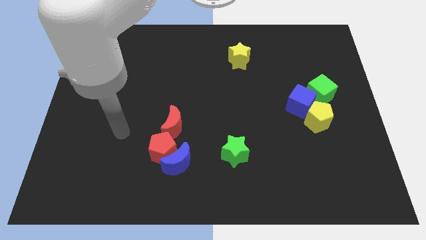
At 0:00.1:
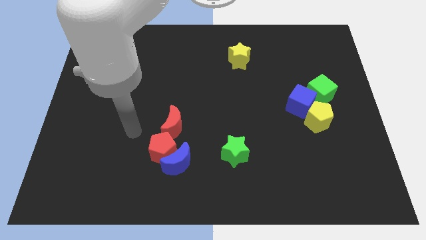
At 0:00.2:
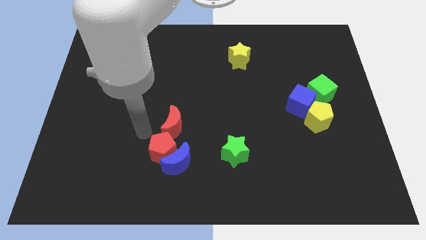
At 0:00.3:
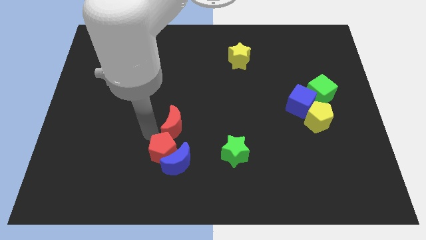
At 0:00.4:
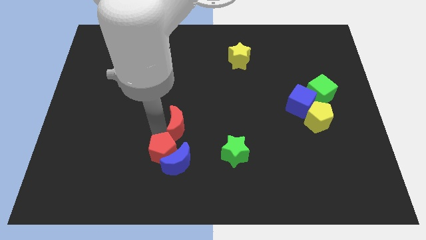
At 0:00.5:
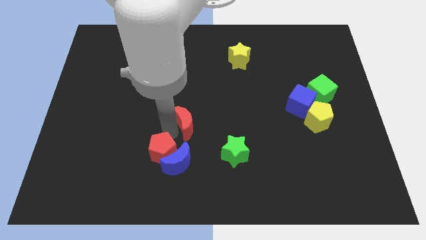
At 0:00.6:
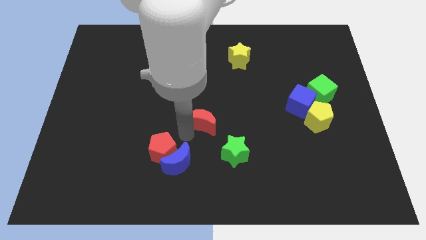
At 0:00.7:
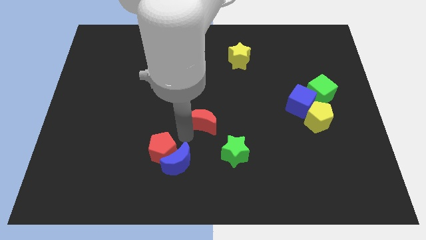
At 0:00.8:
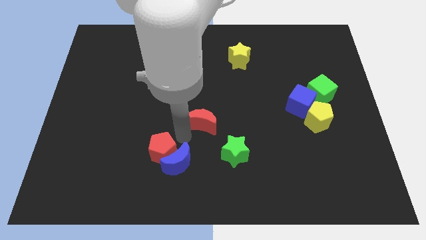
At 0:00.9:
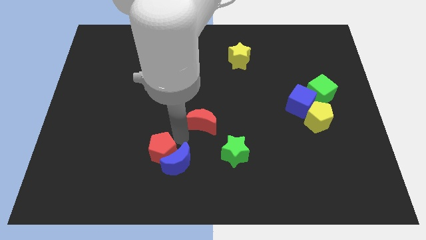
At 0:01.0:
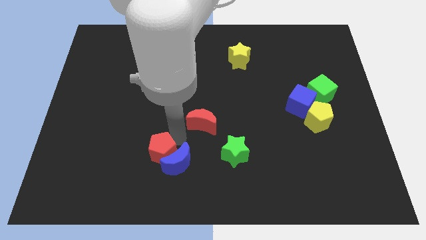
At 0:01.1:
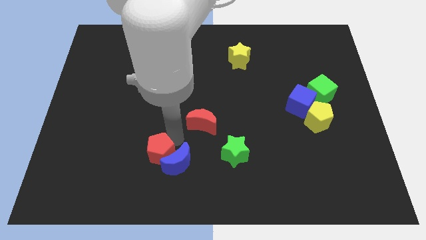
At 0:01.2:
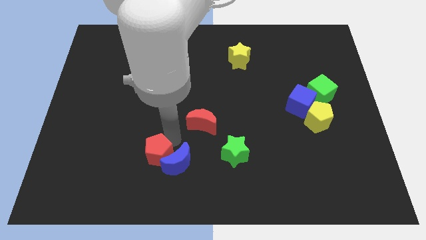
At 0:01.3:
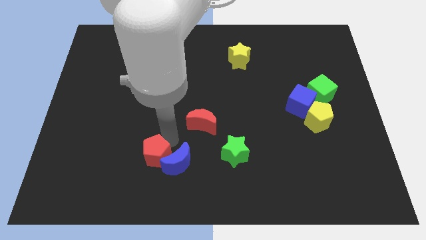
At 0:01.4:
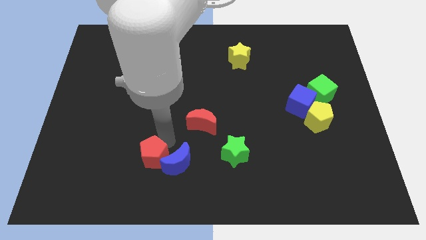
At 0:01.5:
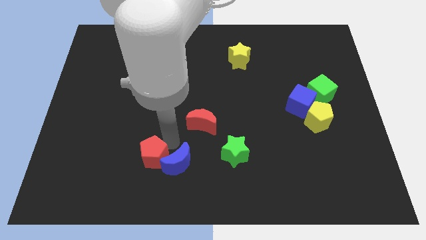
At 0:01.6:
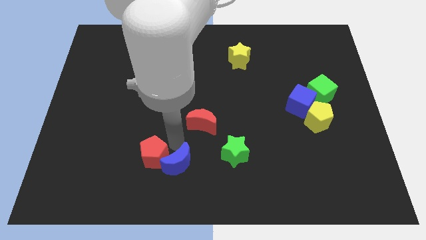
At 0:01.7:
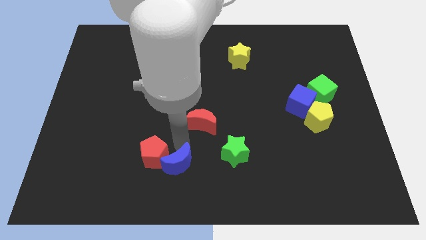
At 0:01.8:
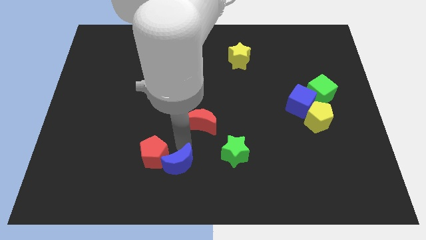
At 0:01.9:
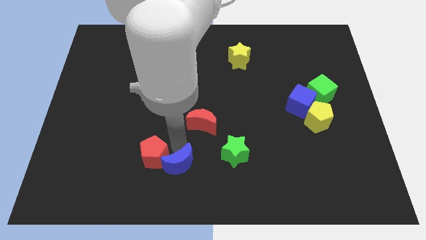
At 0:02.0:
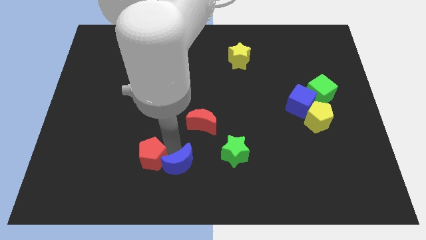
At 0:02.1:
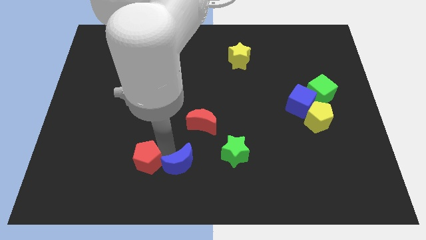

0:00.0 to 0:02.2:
move the red pentagon away from the blue moon and red moon

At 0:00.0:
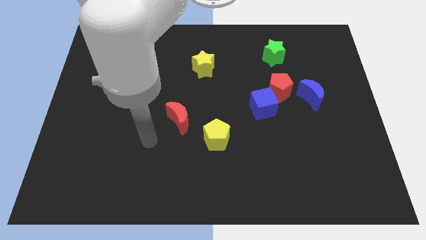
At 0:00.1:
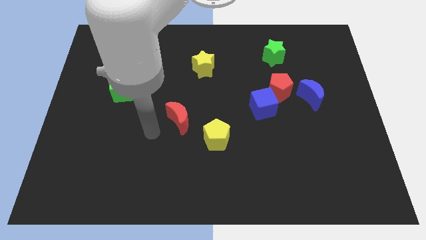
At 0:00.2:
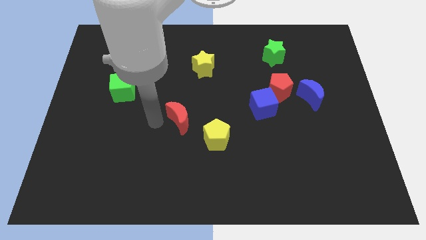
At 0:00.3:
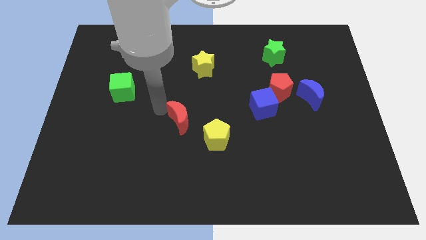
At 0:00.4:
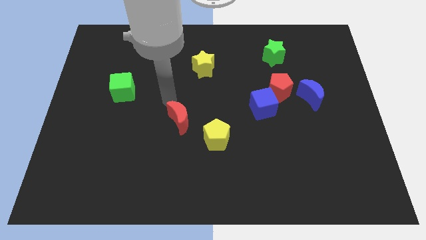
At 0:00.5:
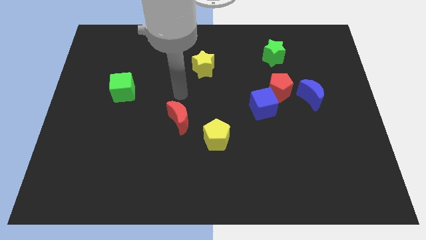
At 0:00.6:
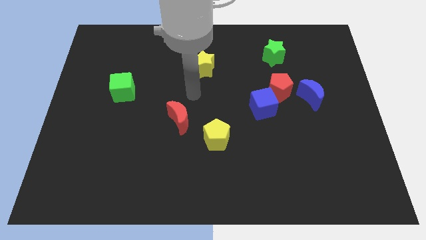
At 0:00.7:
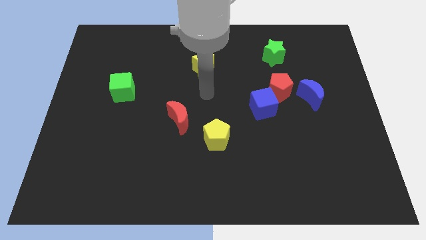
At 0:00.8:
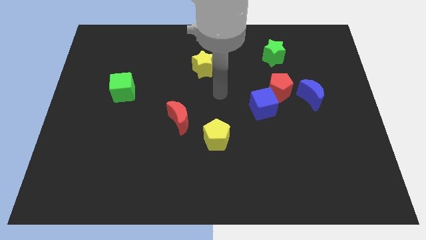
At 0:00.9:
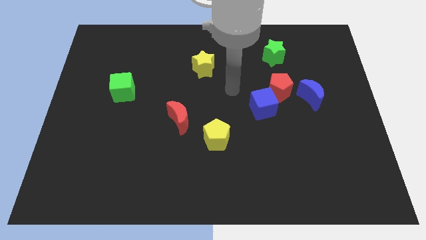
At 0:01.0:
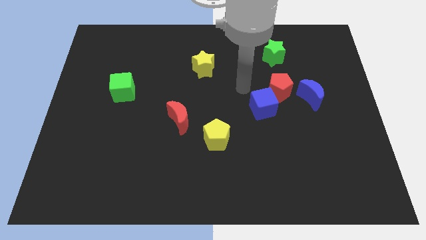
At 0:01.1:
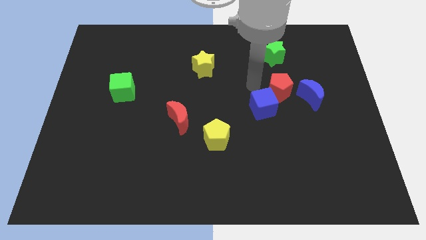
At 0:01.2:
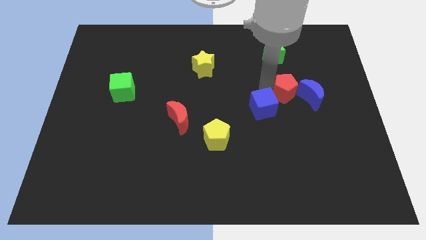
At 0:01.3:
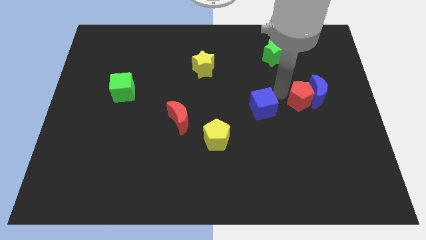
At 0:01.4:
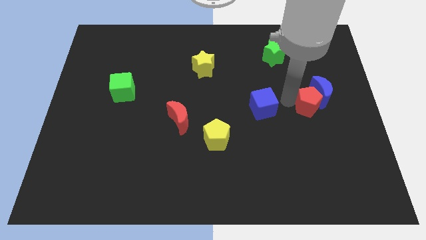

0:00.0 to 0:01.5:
move the blue cube away from the red pentagon

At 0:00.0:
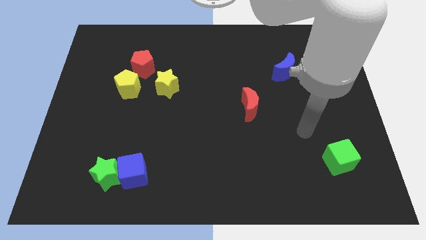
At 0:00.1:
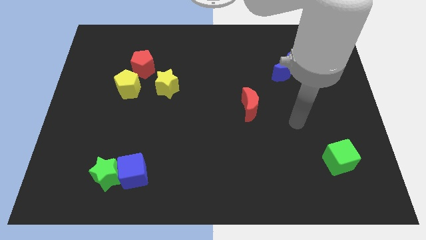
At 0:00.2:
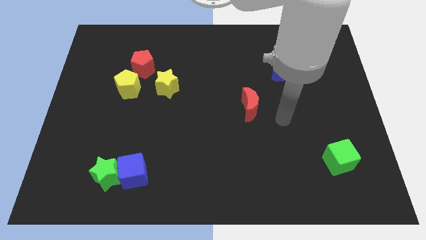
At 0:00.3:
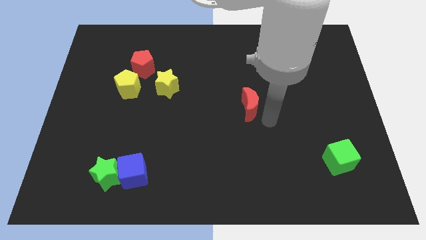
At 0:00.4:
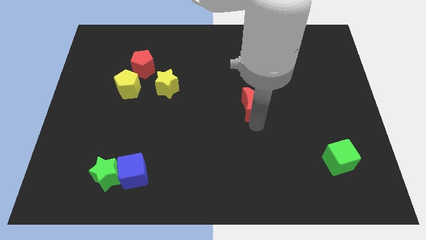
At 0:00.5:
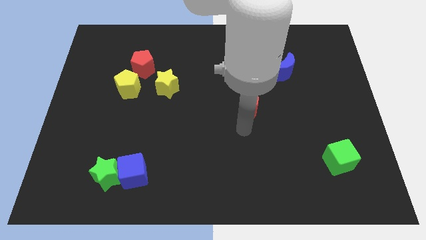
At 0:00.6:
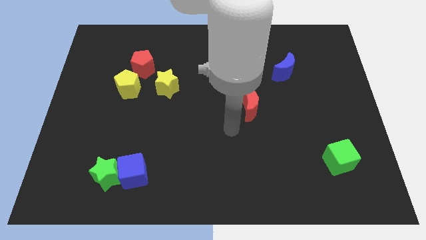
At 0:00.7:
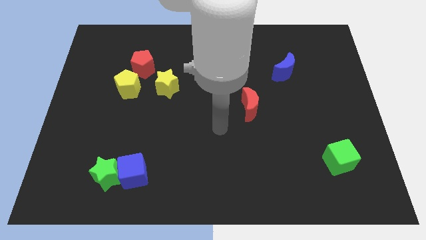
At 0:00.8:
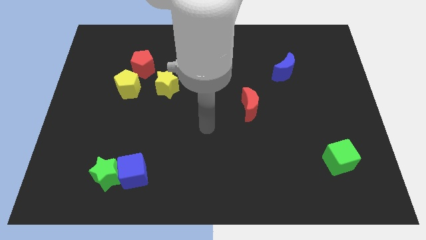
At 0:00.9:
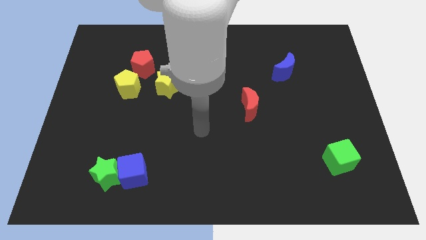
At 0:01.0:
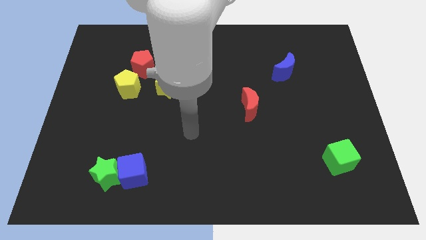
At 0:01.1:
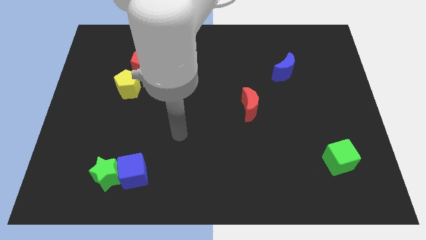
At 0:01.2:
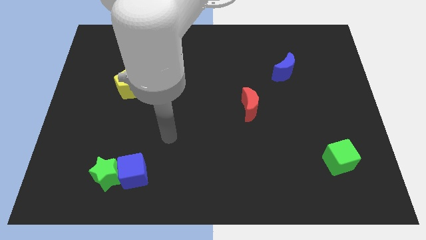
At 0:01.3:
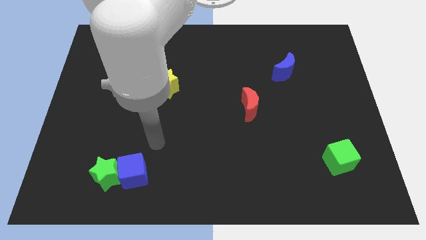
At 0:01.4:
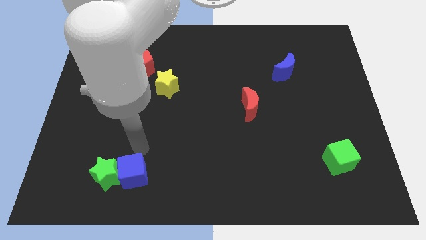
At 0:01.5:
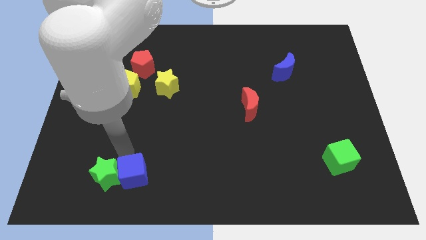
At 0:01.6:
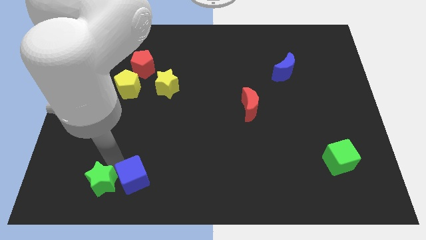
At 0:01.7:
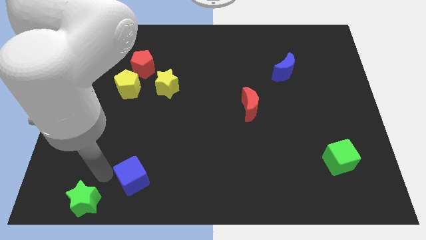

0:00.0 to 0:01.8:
move the blue cube away from the green star

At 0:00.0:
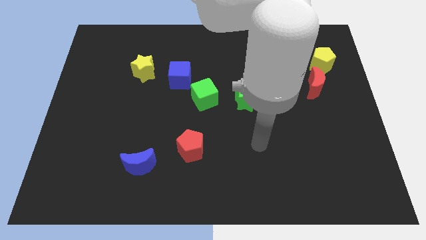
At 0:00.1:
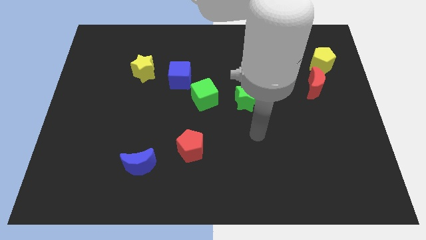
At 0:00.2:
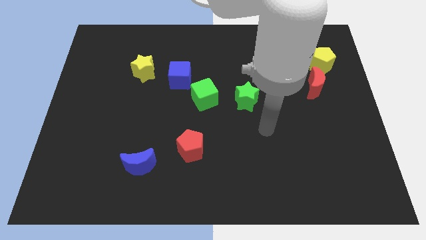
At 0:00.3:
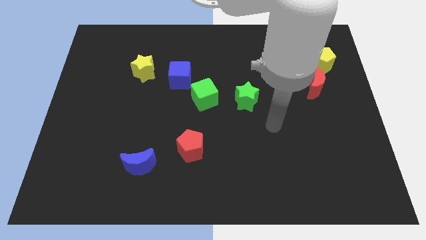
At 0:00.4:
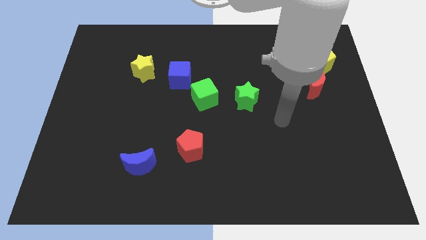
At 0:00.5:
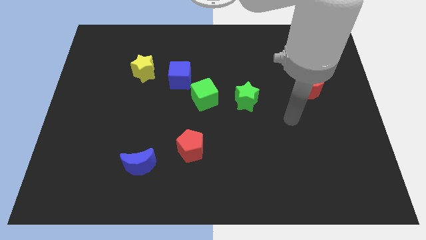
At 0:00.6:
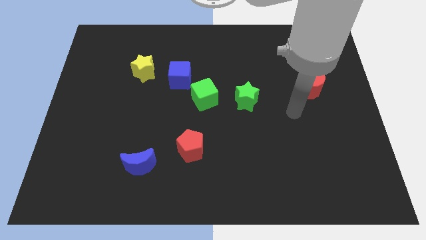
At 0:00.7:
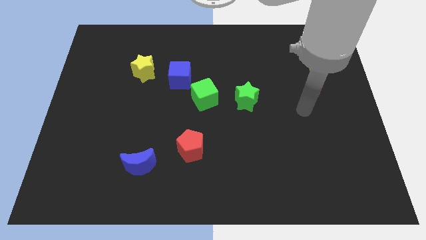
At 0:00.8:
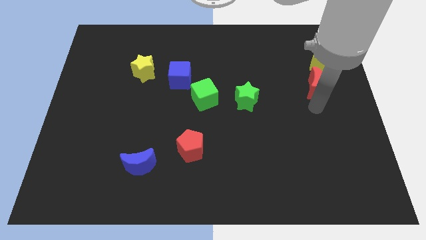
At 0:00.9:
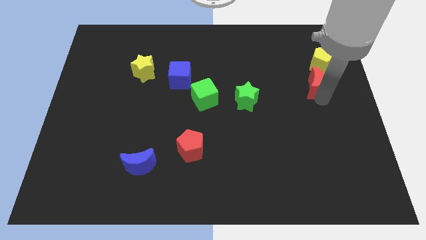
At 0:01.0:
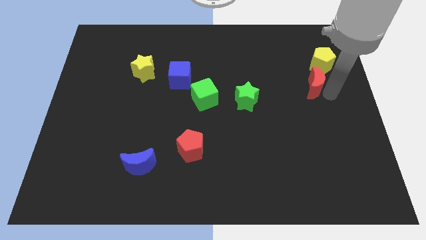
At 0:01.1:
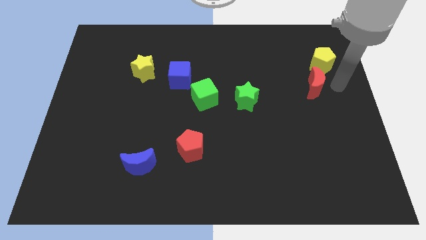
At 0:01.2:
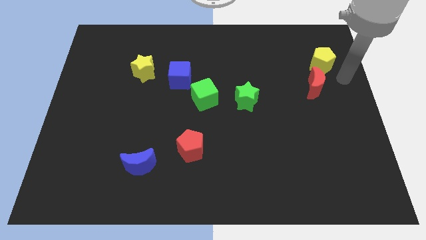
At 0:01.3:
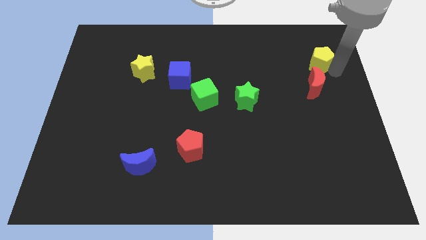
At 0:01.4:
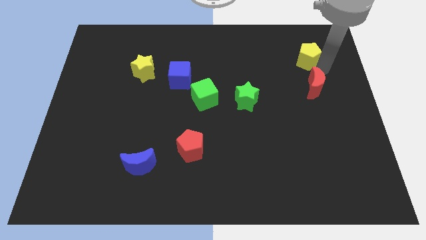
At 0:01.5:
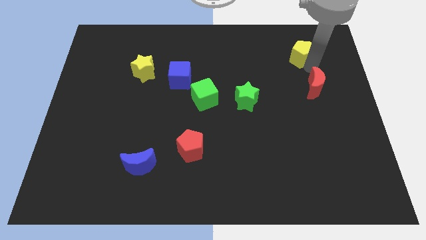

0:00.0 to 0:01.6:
separate the red moon from the yellow pentagon

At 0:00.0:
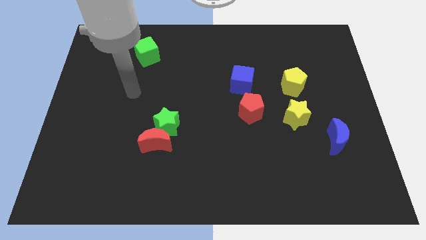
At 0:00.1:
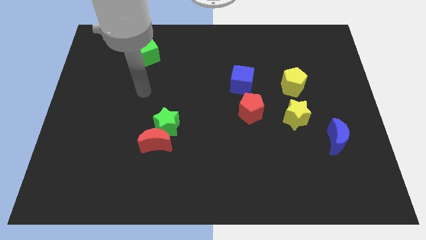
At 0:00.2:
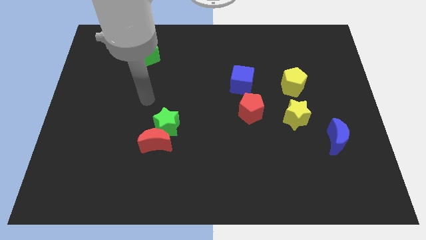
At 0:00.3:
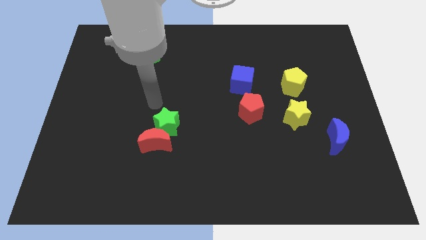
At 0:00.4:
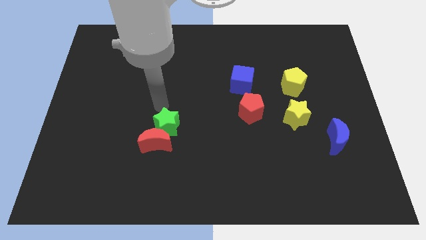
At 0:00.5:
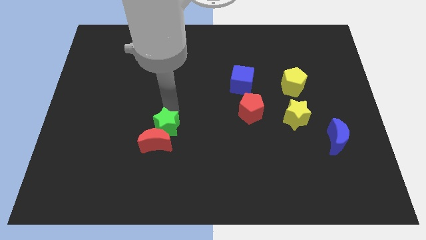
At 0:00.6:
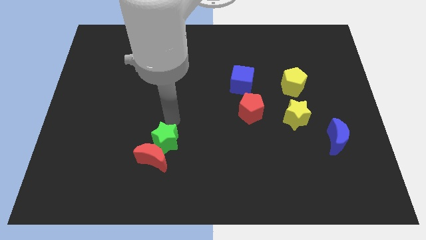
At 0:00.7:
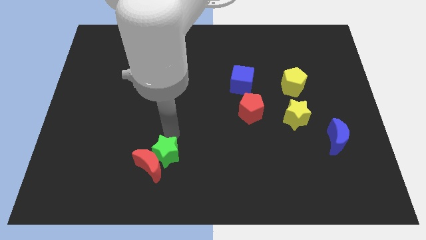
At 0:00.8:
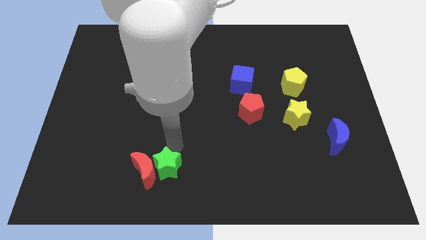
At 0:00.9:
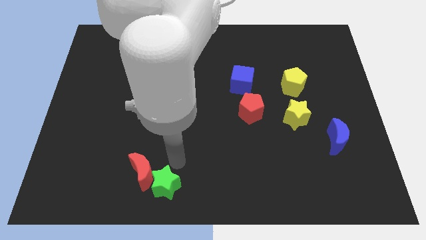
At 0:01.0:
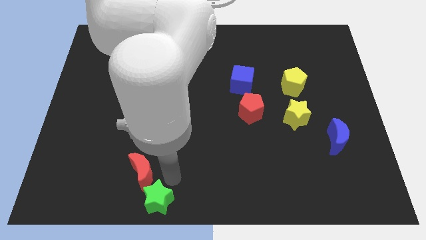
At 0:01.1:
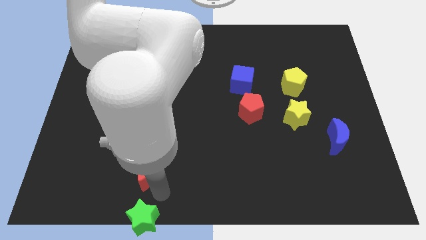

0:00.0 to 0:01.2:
separate the red moon from the green star

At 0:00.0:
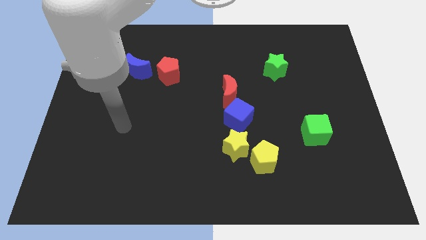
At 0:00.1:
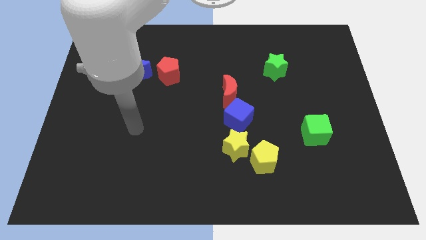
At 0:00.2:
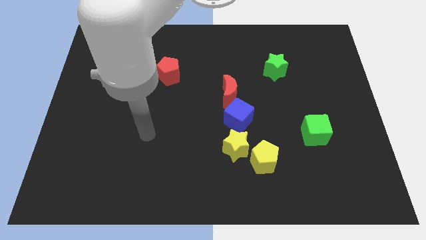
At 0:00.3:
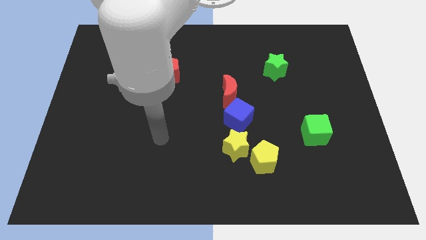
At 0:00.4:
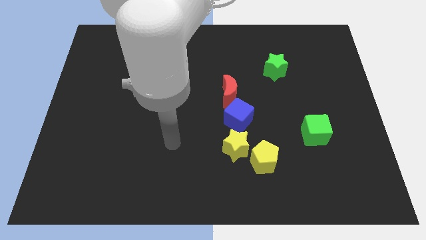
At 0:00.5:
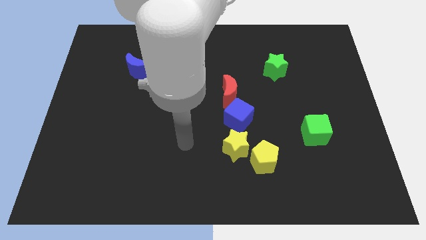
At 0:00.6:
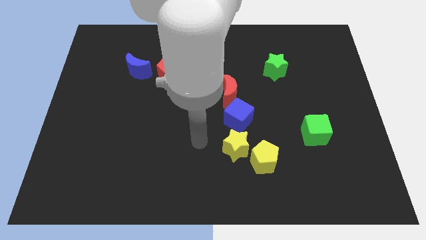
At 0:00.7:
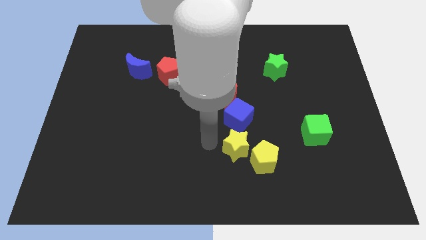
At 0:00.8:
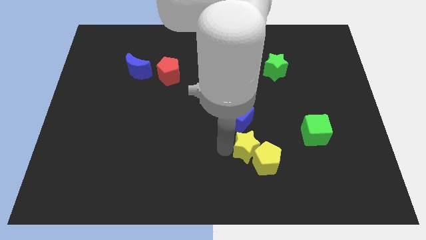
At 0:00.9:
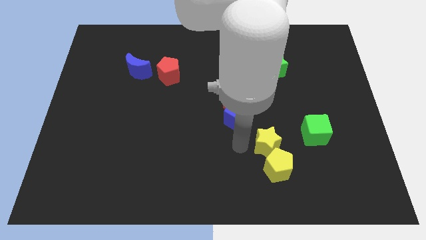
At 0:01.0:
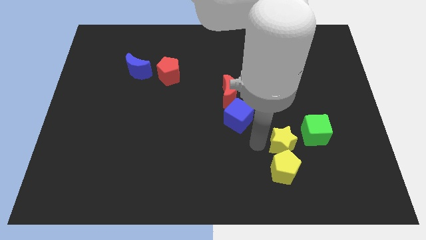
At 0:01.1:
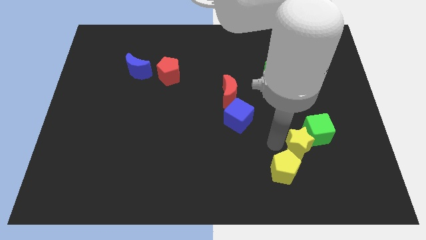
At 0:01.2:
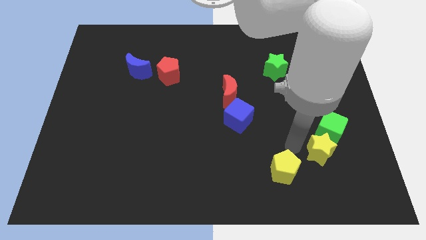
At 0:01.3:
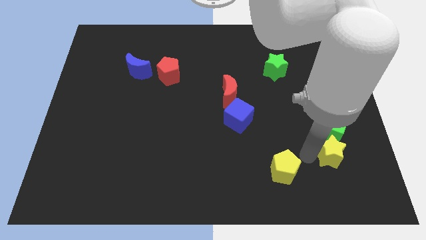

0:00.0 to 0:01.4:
separate the yellow pentagon from the yellow star
